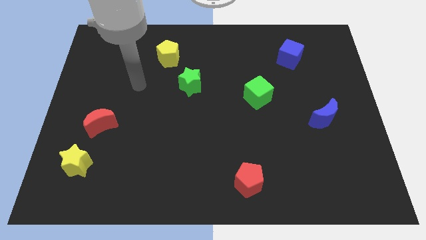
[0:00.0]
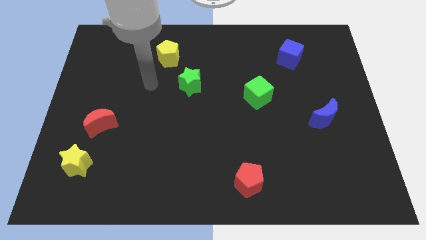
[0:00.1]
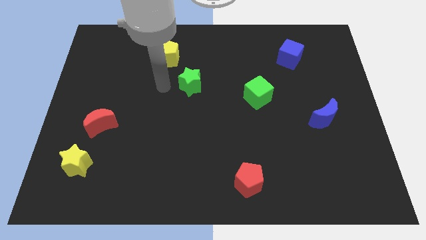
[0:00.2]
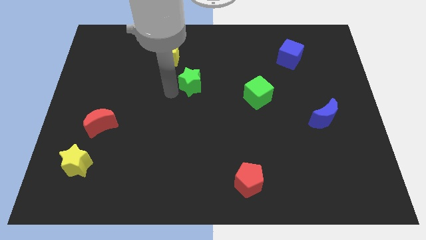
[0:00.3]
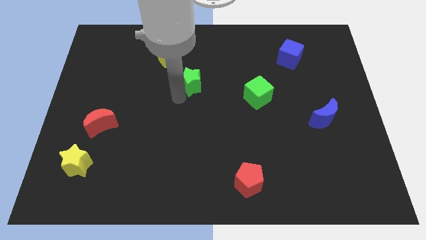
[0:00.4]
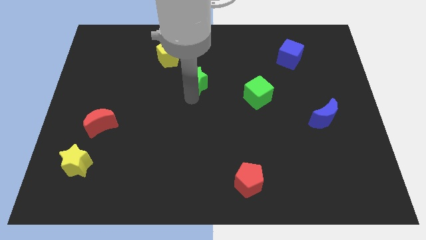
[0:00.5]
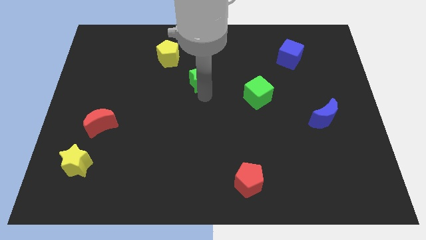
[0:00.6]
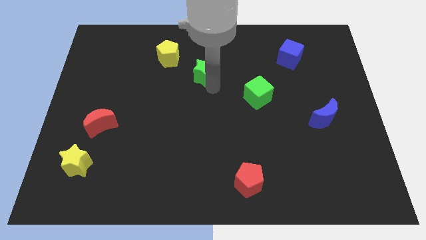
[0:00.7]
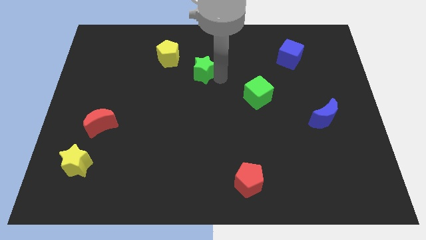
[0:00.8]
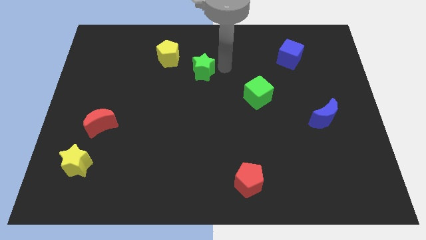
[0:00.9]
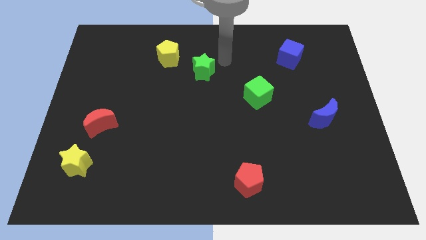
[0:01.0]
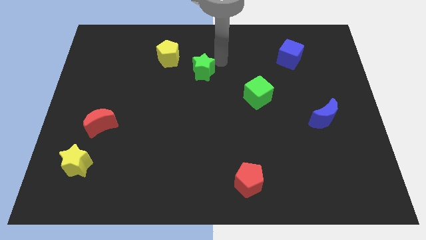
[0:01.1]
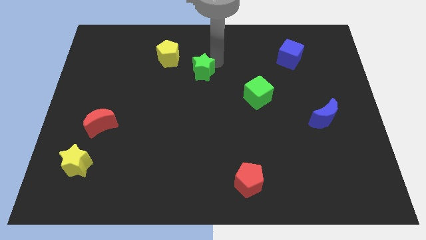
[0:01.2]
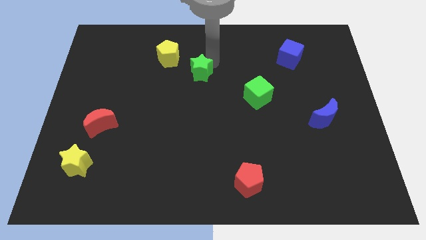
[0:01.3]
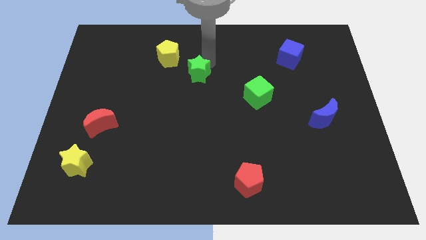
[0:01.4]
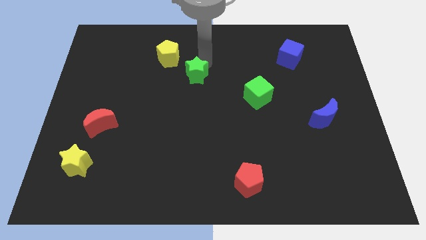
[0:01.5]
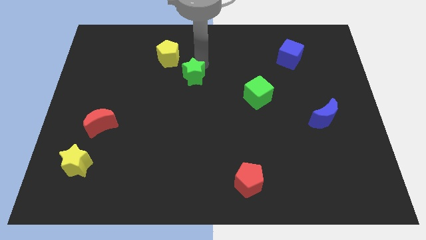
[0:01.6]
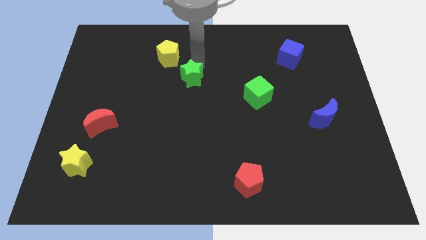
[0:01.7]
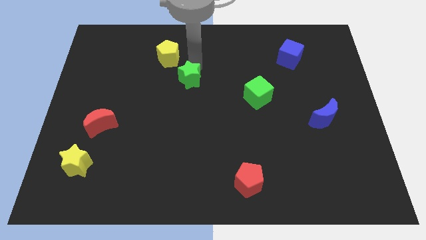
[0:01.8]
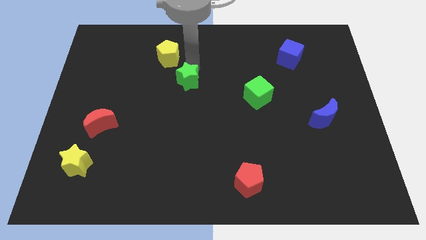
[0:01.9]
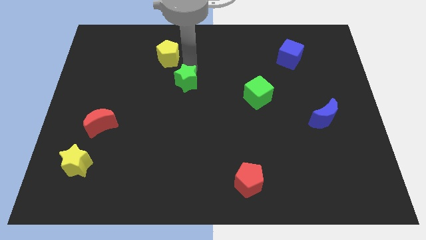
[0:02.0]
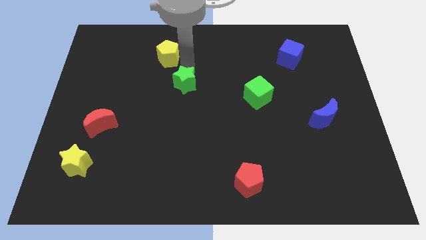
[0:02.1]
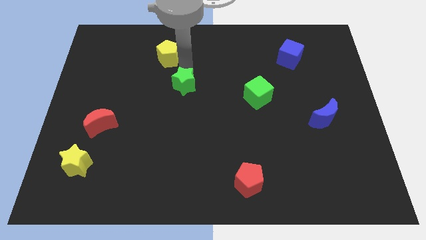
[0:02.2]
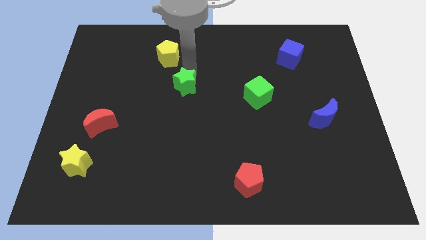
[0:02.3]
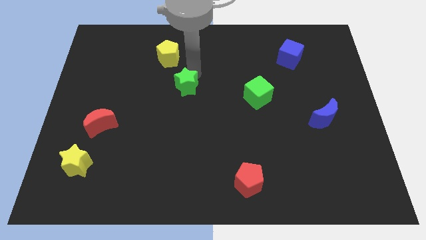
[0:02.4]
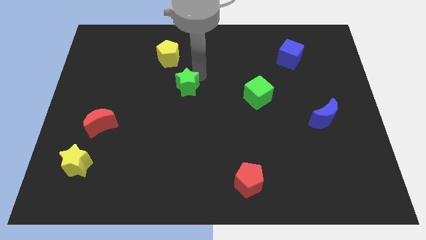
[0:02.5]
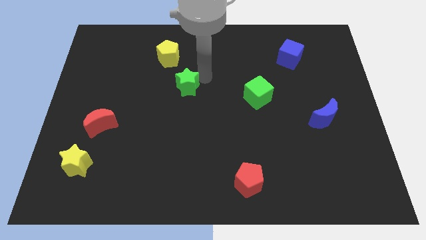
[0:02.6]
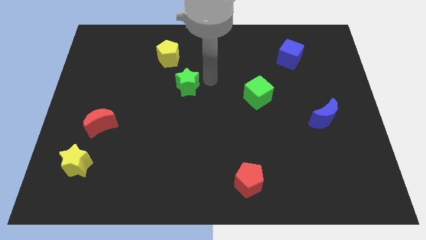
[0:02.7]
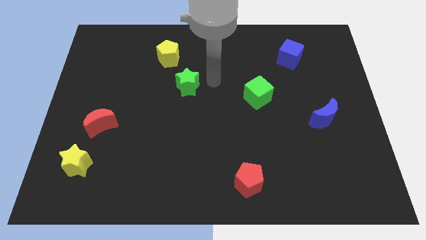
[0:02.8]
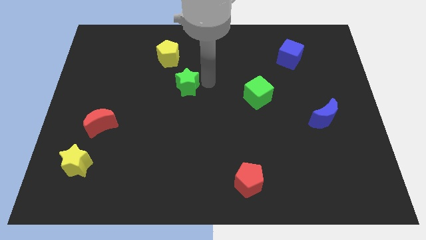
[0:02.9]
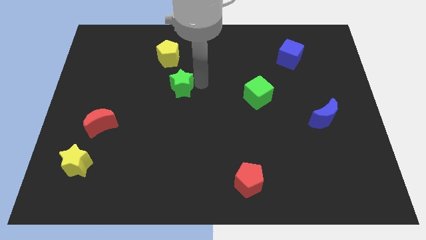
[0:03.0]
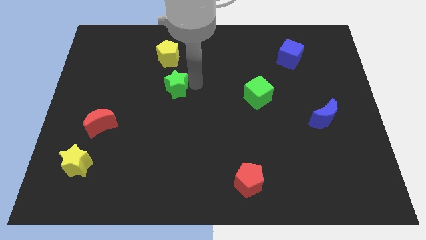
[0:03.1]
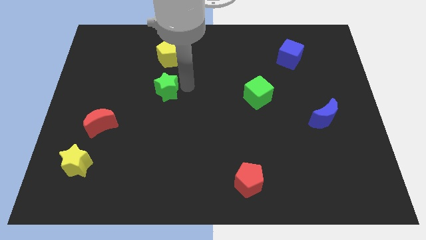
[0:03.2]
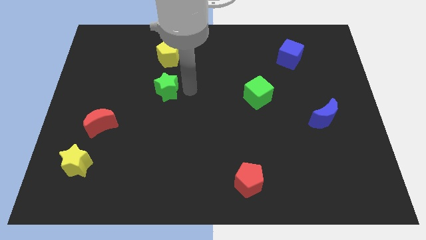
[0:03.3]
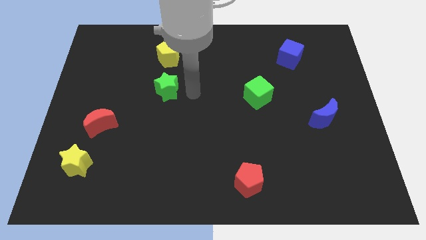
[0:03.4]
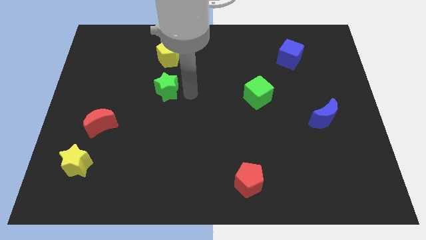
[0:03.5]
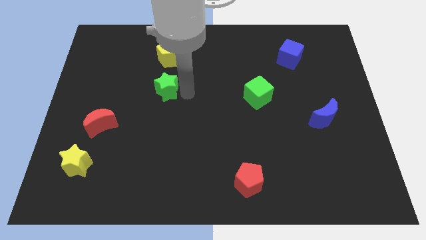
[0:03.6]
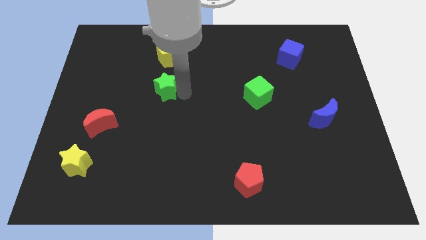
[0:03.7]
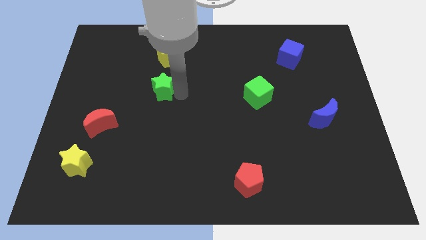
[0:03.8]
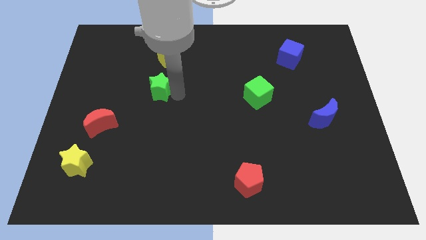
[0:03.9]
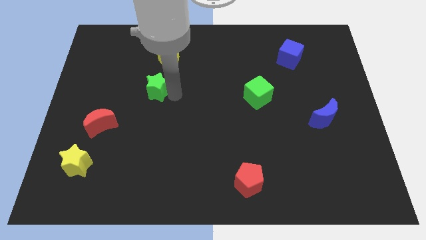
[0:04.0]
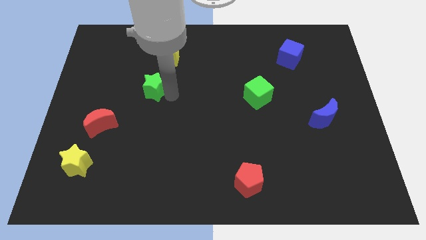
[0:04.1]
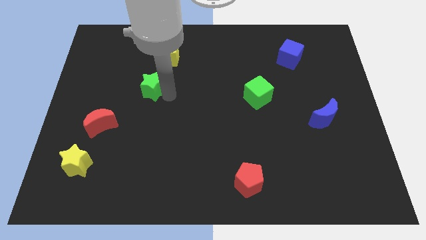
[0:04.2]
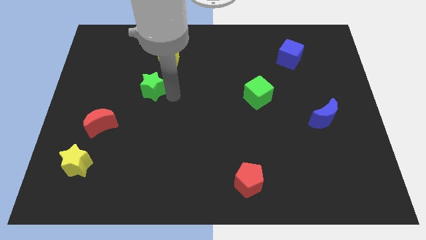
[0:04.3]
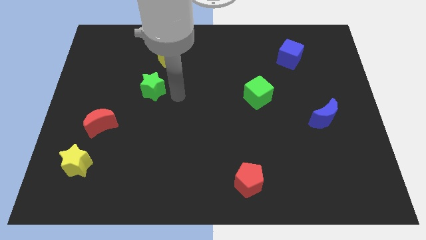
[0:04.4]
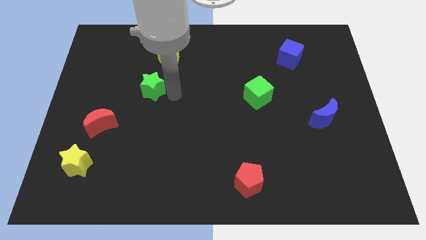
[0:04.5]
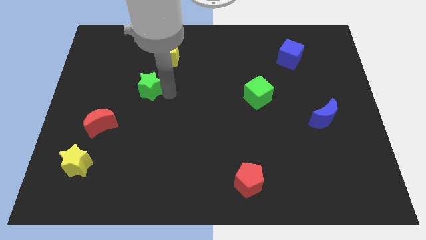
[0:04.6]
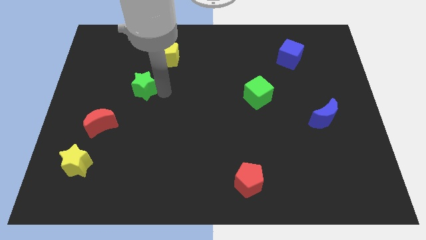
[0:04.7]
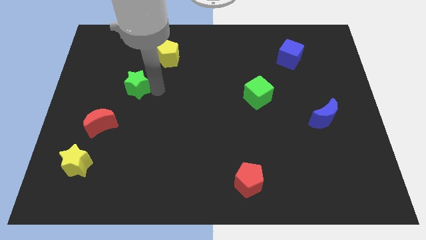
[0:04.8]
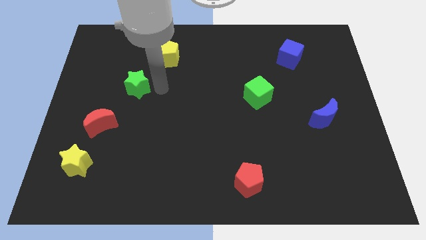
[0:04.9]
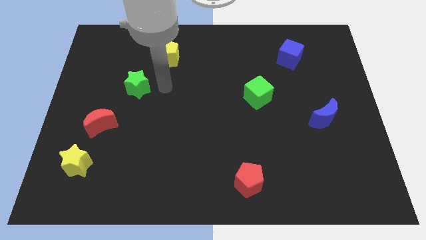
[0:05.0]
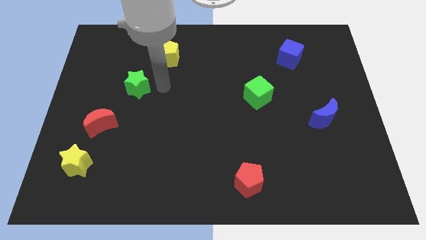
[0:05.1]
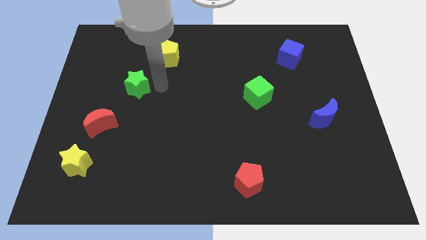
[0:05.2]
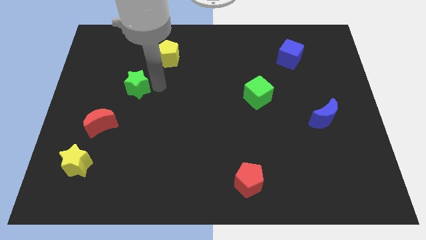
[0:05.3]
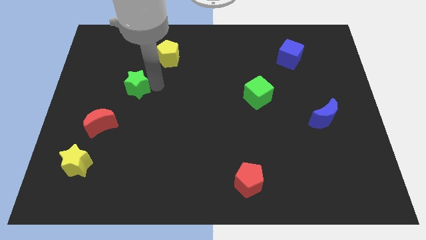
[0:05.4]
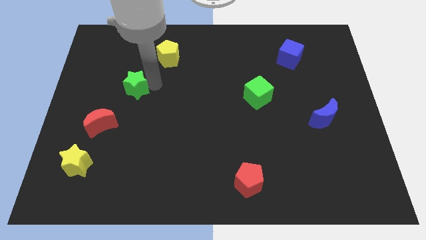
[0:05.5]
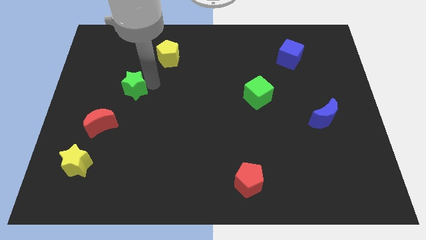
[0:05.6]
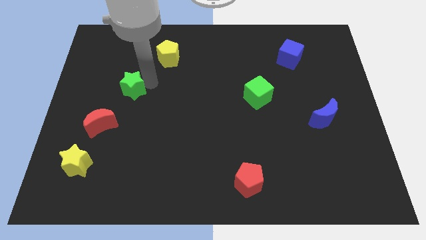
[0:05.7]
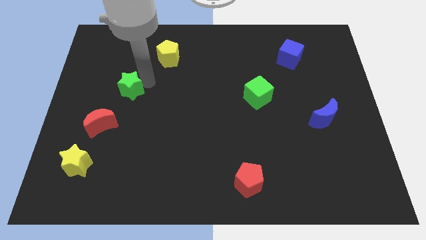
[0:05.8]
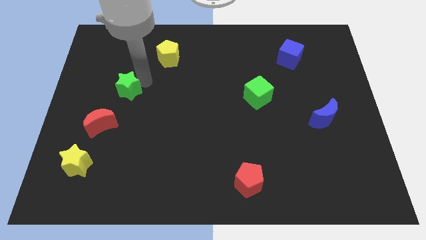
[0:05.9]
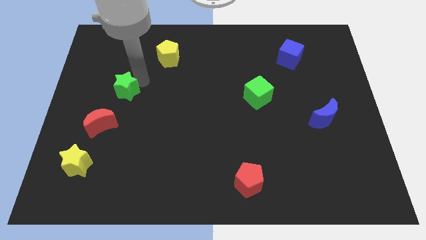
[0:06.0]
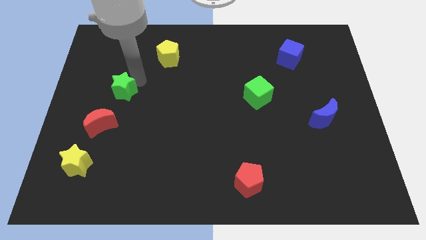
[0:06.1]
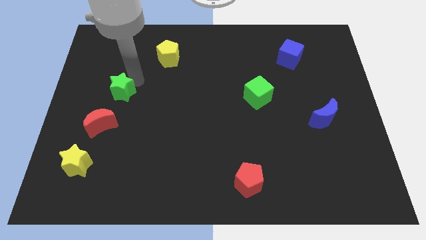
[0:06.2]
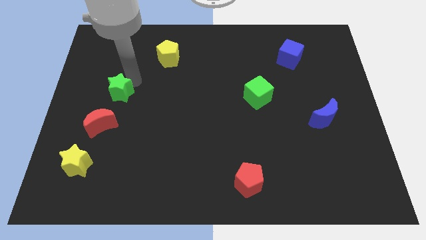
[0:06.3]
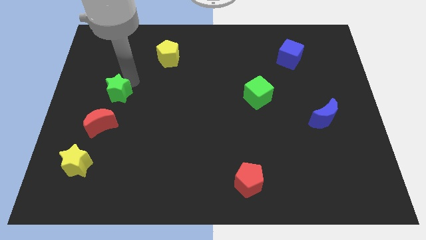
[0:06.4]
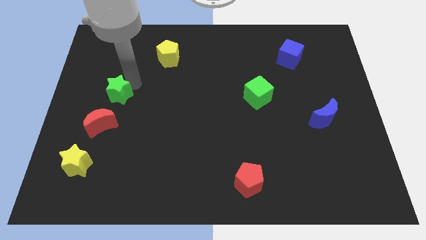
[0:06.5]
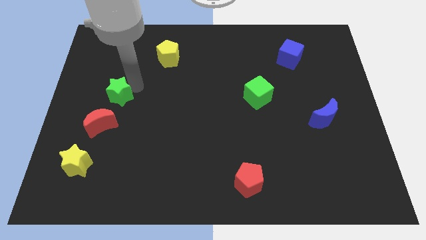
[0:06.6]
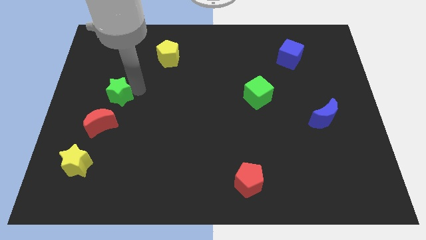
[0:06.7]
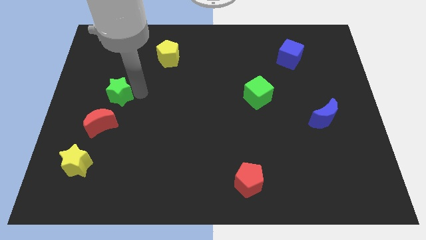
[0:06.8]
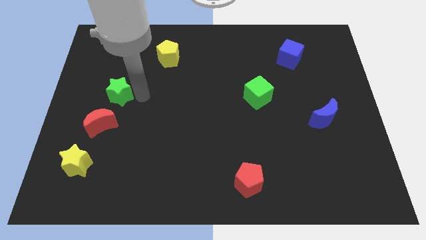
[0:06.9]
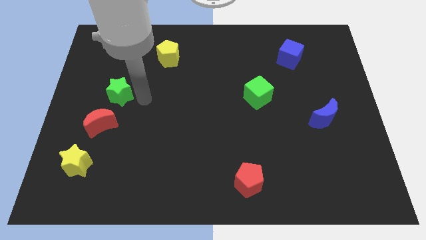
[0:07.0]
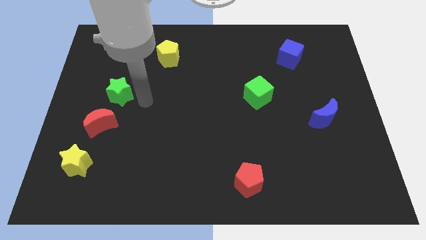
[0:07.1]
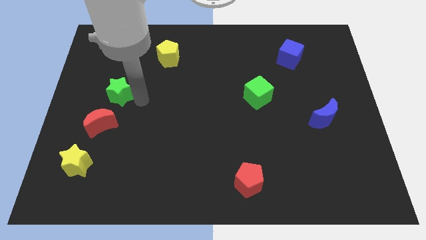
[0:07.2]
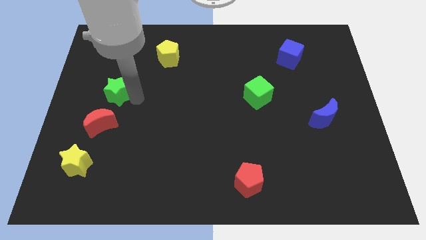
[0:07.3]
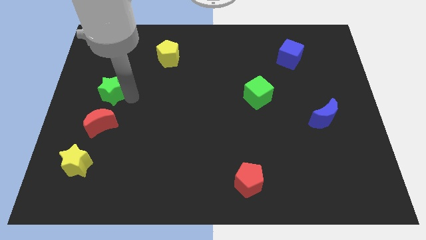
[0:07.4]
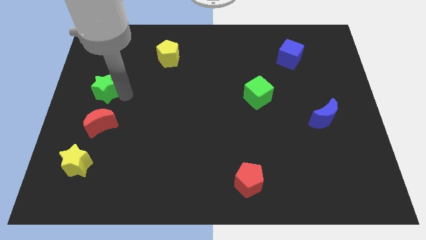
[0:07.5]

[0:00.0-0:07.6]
put the green star to the left side
